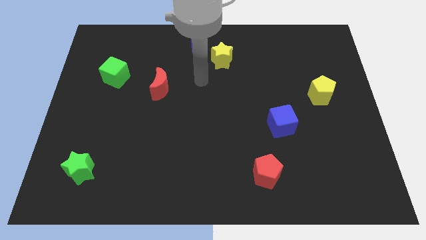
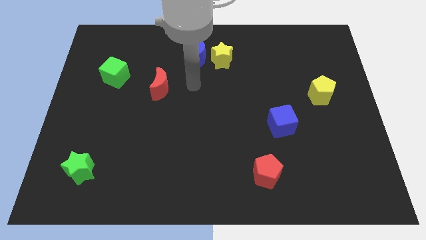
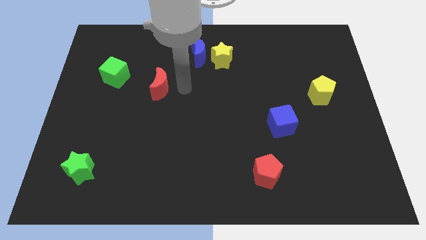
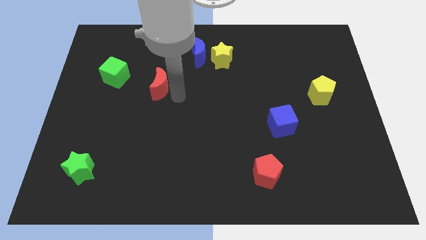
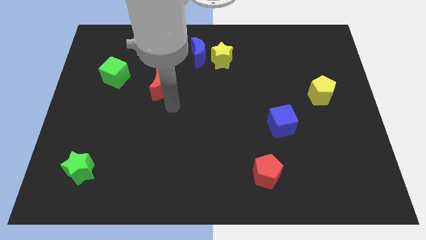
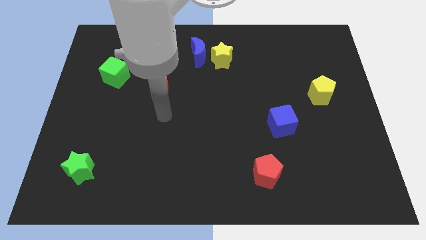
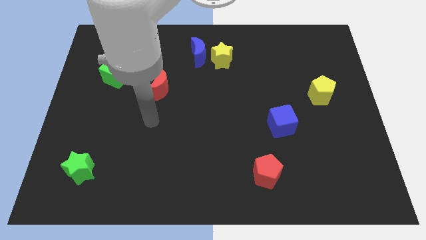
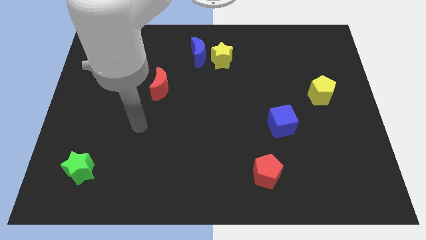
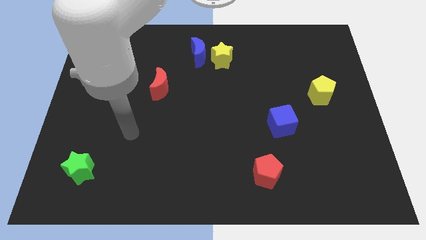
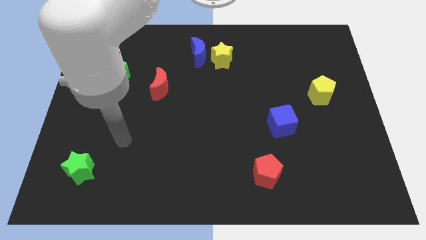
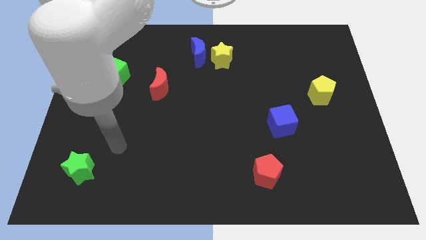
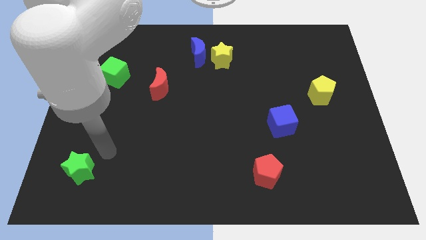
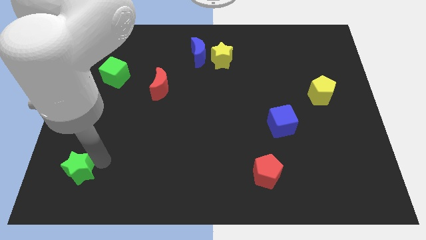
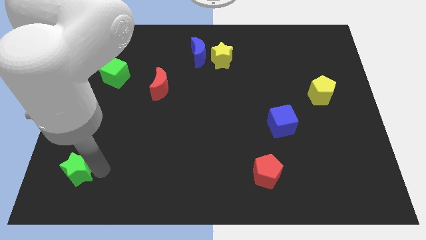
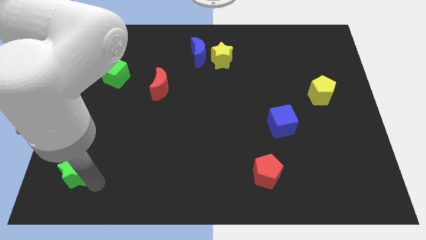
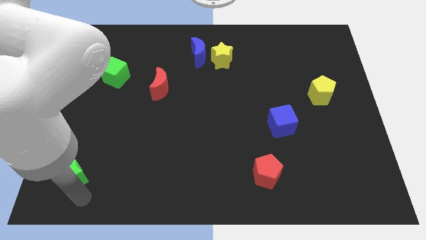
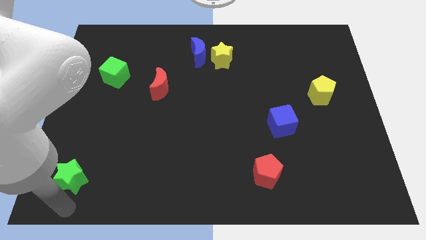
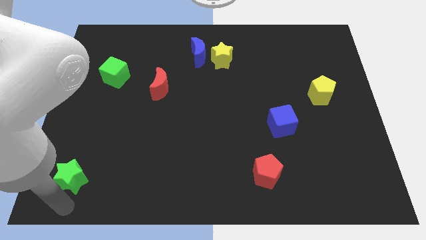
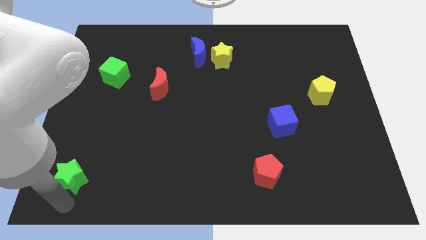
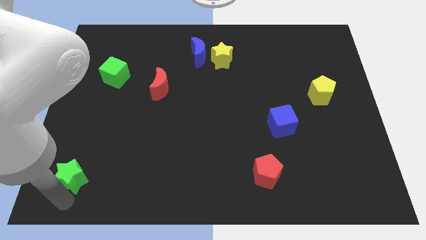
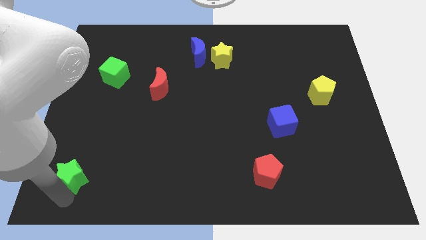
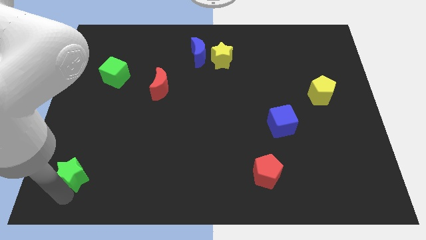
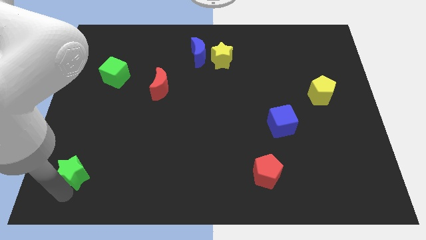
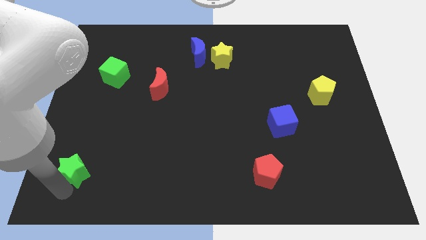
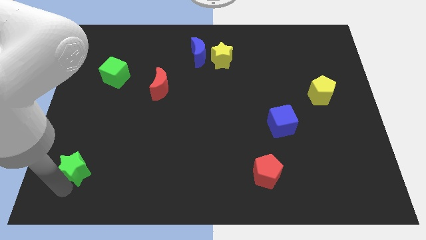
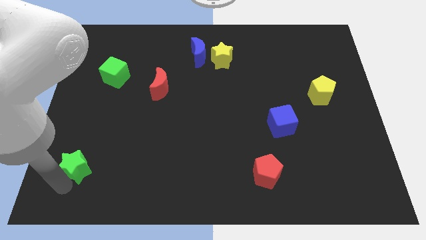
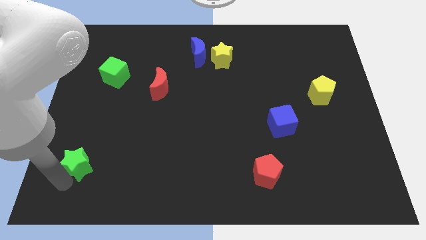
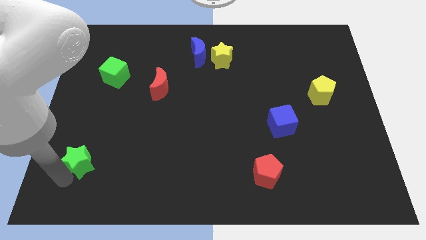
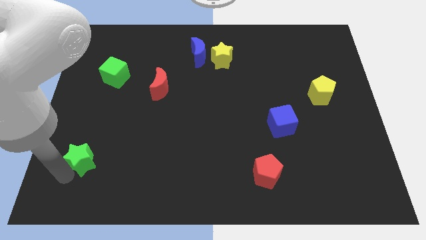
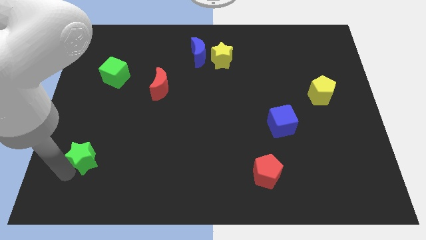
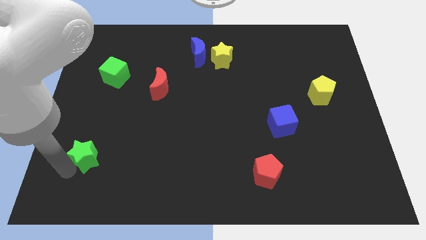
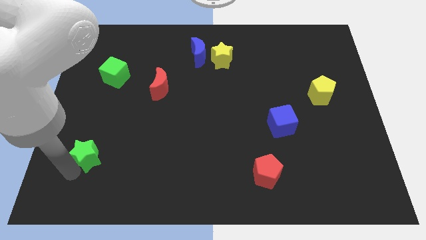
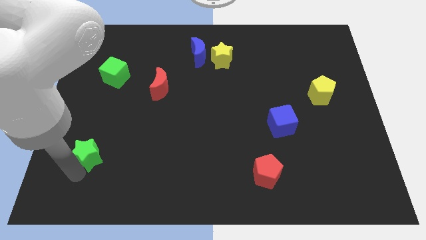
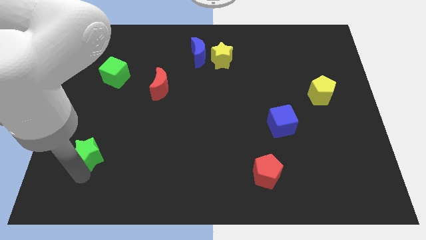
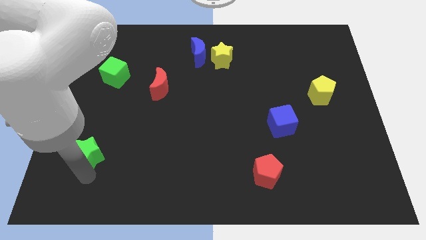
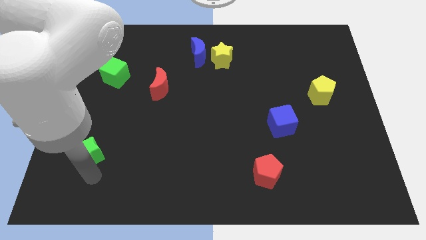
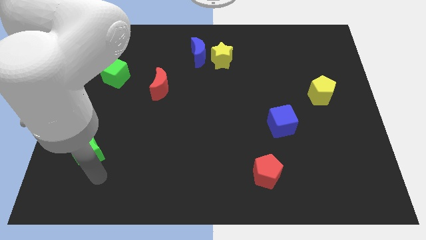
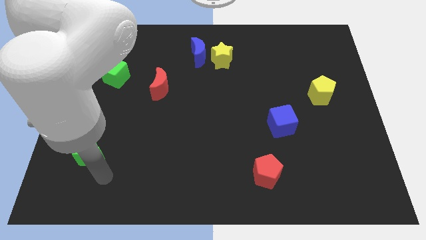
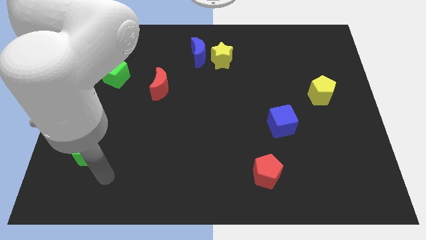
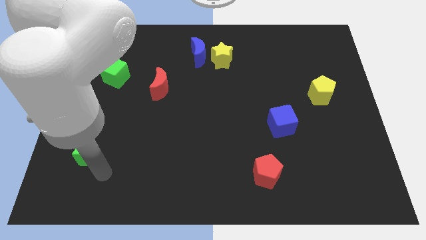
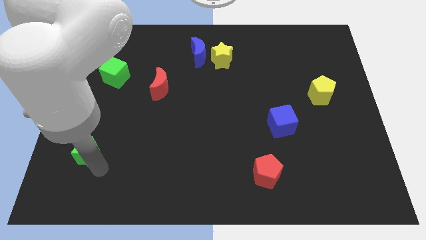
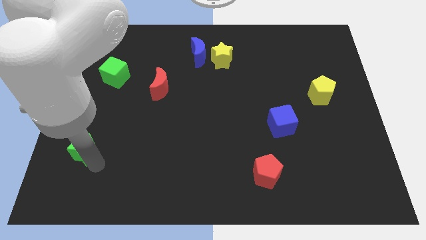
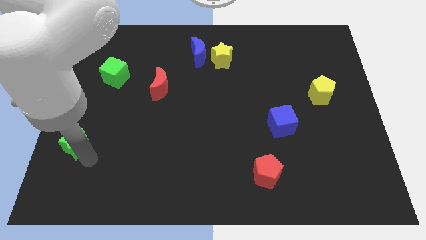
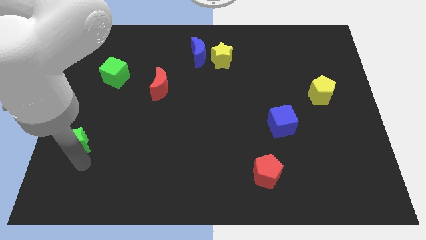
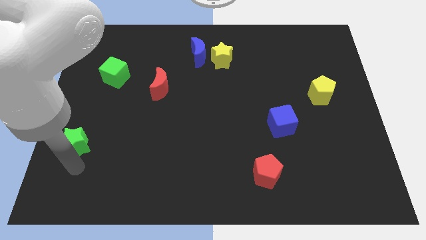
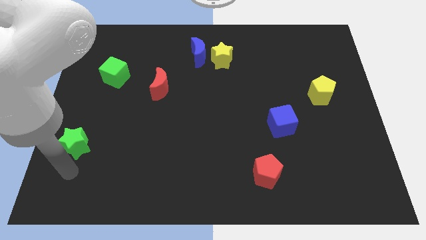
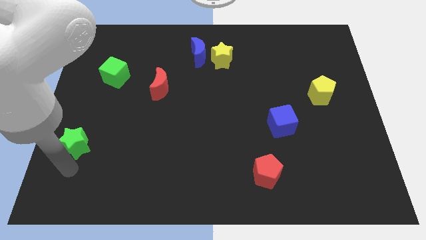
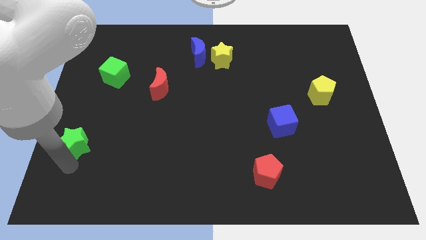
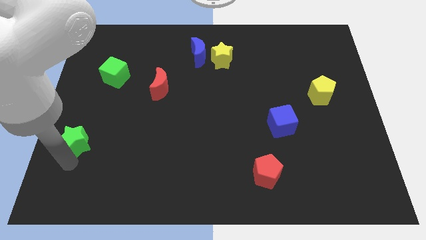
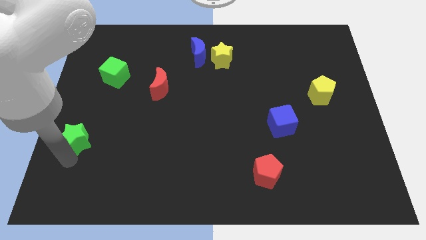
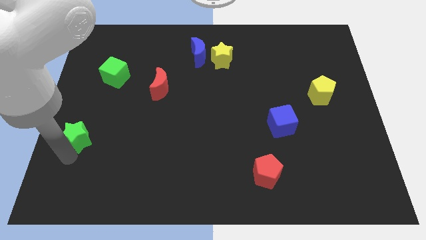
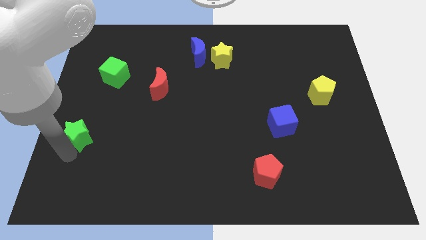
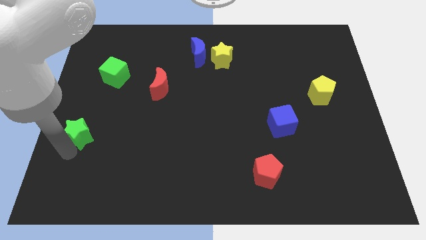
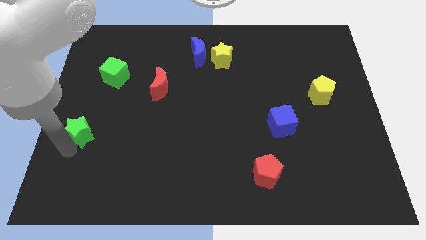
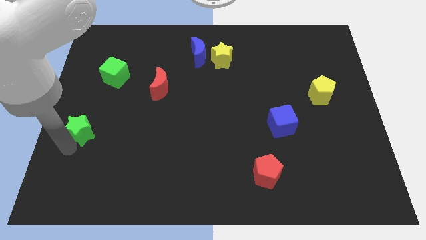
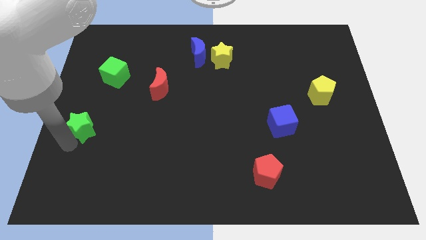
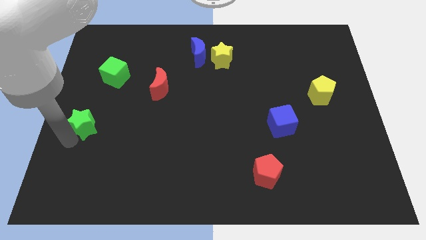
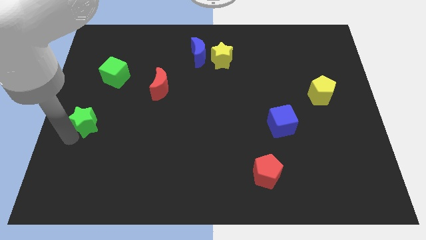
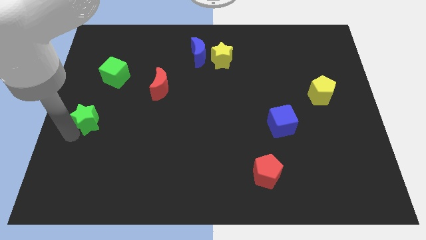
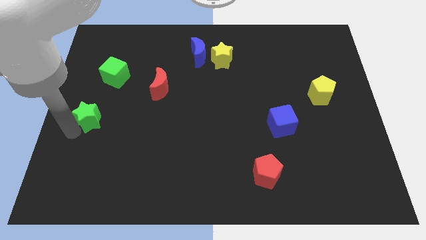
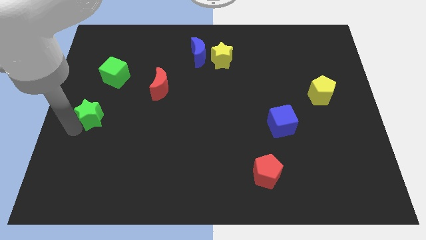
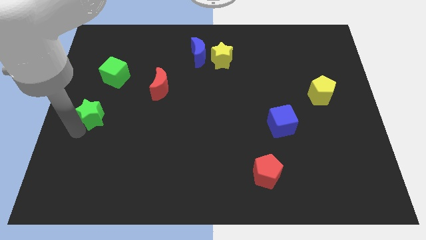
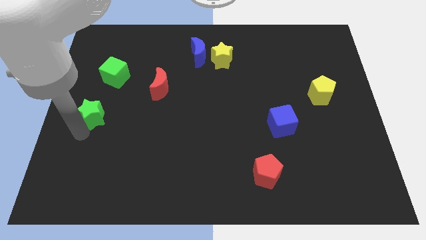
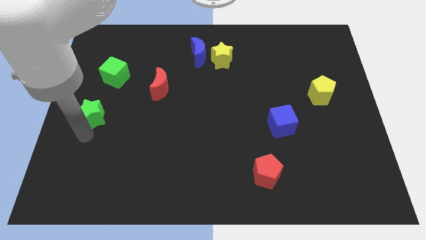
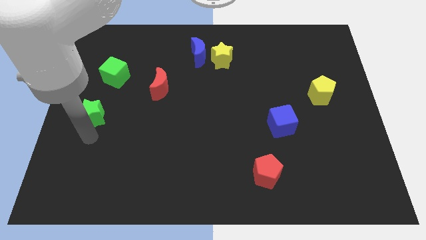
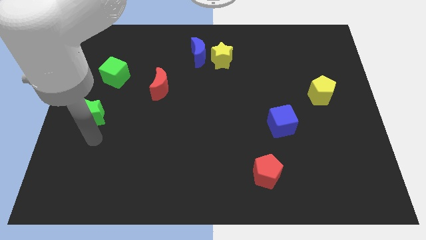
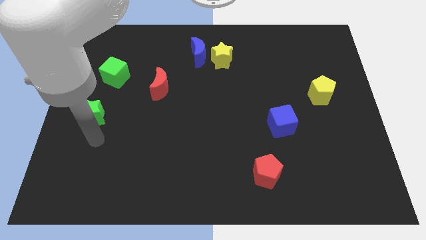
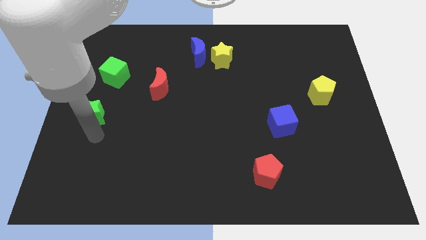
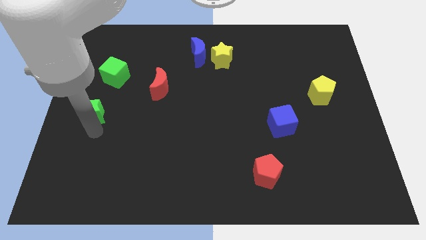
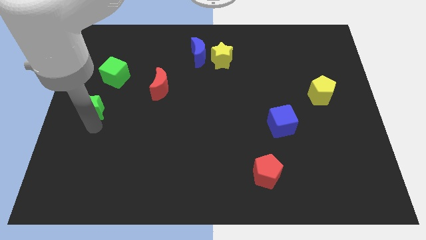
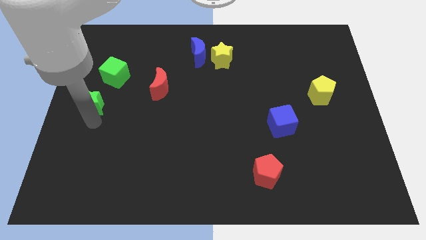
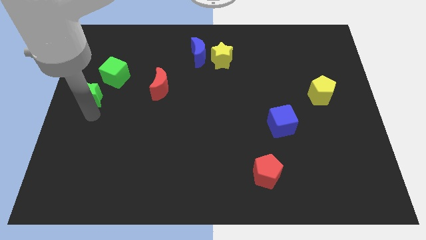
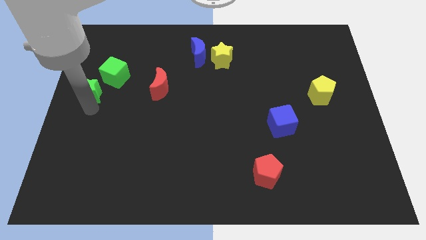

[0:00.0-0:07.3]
move the green star upwards

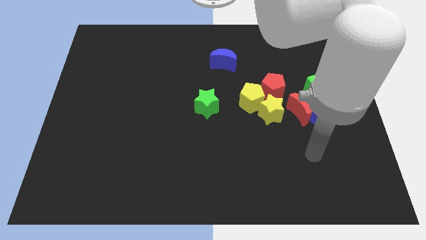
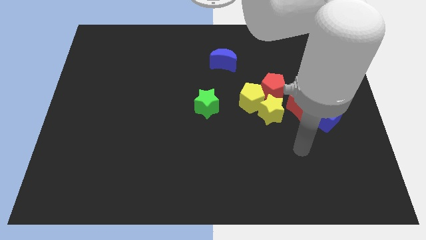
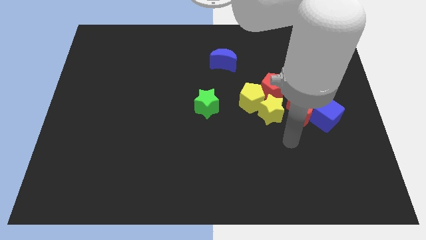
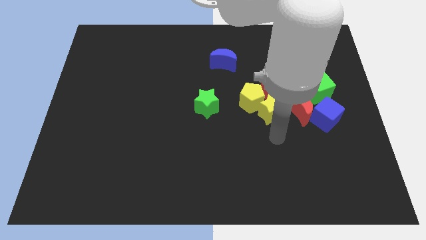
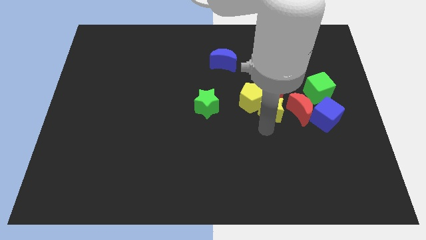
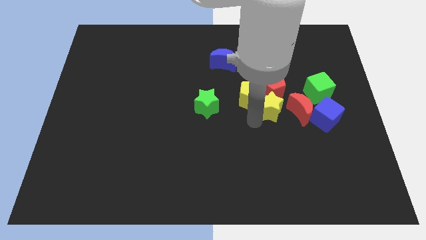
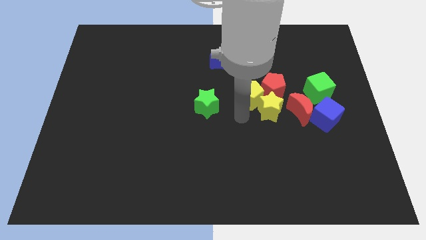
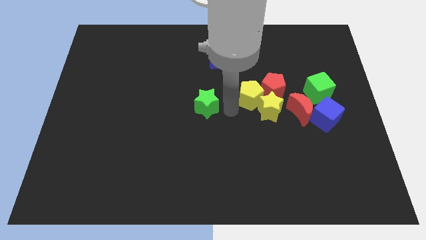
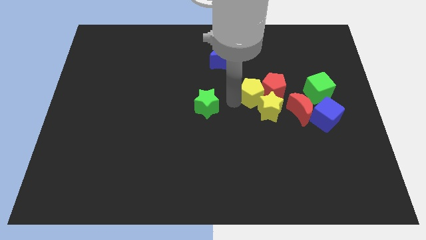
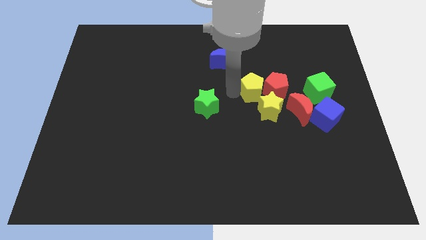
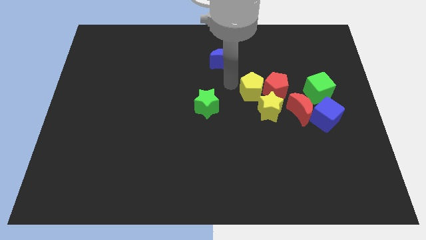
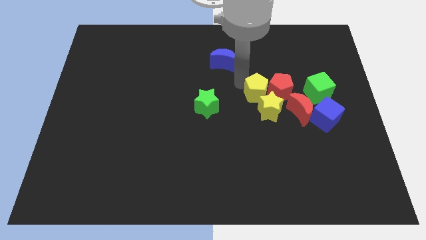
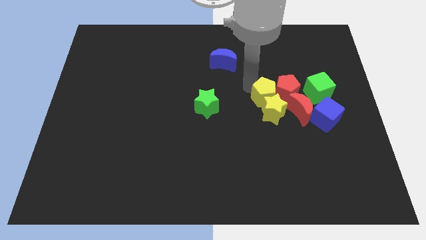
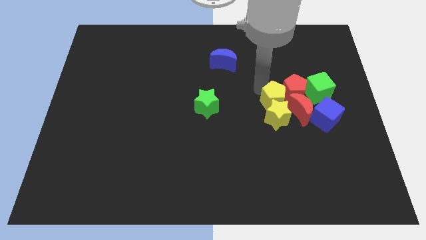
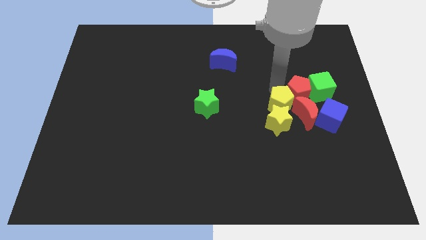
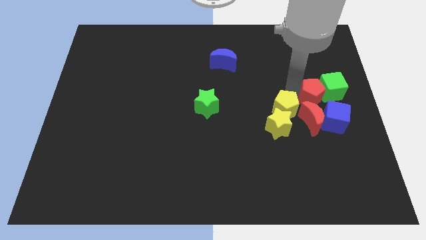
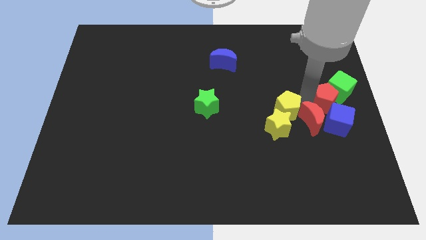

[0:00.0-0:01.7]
slide the yellow pentagon down and then to the right a little
